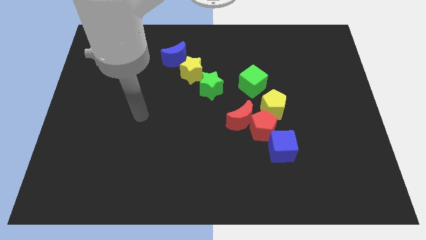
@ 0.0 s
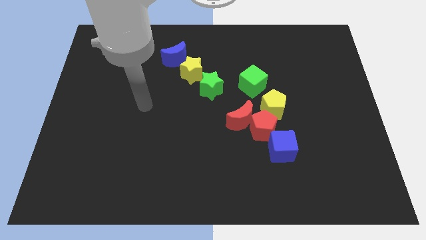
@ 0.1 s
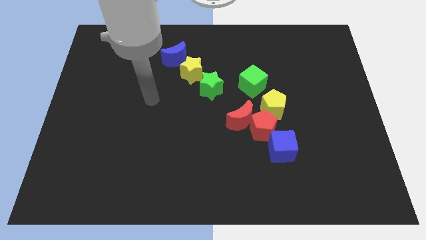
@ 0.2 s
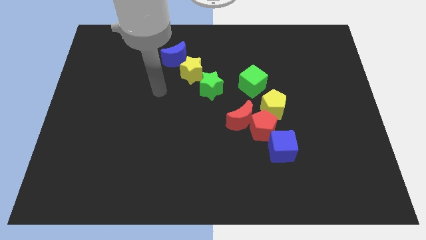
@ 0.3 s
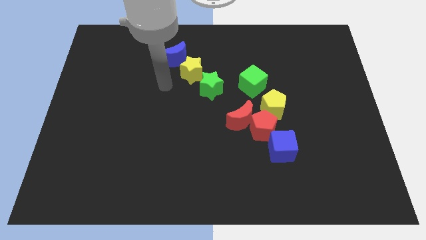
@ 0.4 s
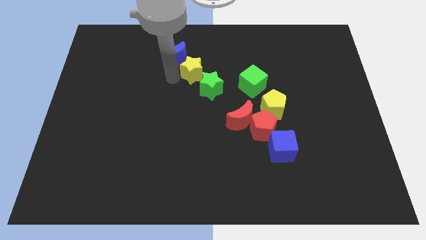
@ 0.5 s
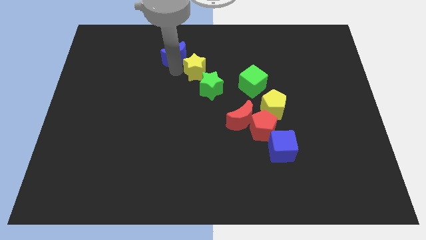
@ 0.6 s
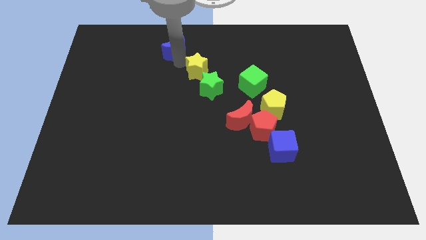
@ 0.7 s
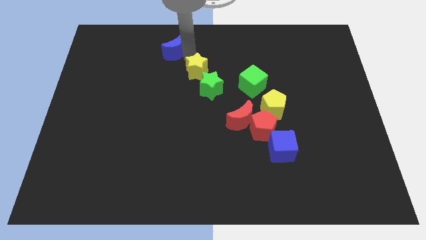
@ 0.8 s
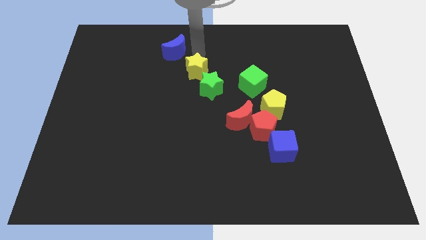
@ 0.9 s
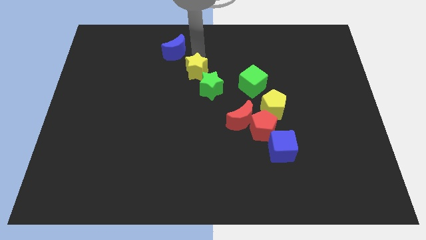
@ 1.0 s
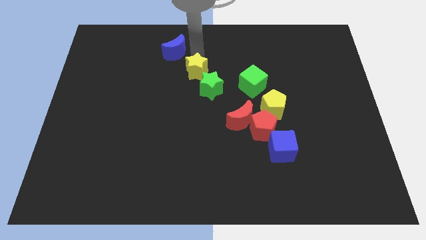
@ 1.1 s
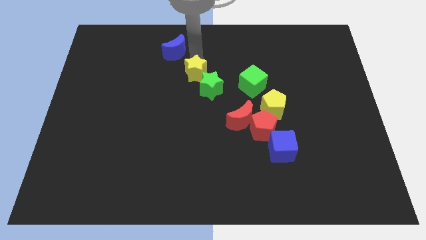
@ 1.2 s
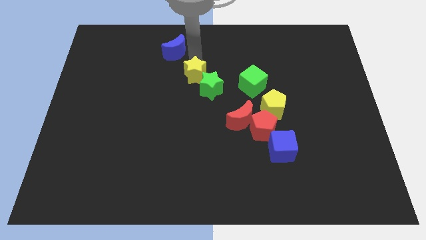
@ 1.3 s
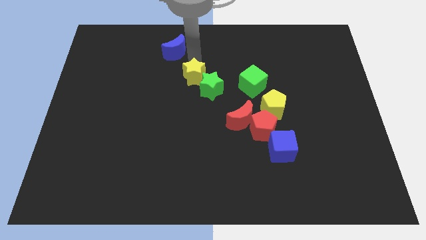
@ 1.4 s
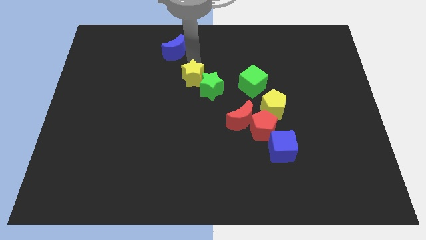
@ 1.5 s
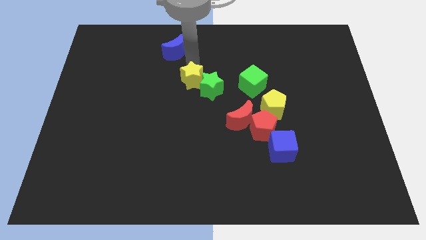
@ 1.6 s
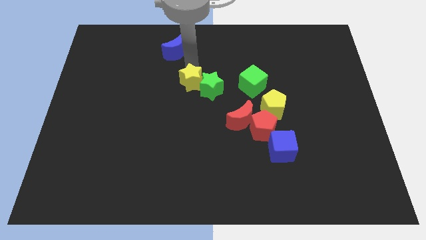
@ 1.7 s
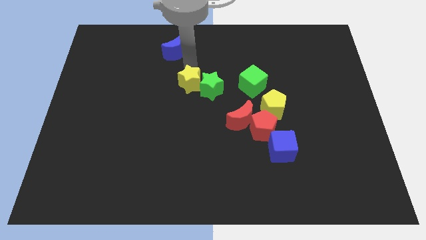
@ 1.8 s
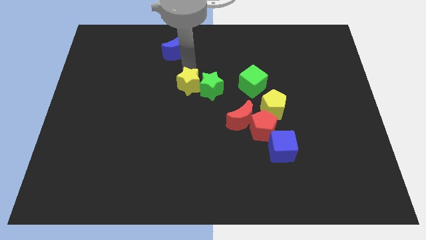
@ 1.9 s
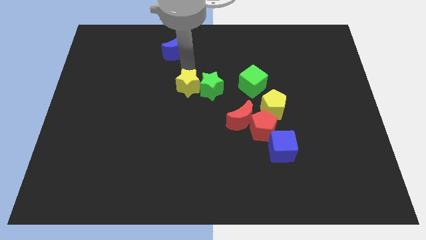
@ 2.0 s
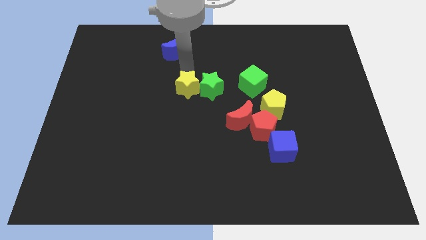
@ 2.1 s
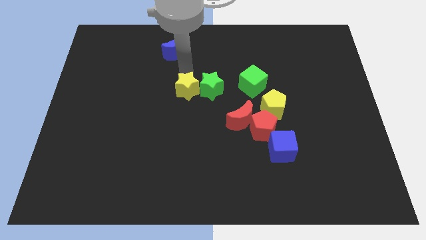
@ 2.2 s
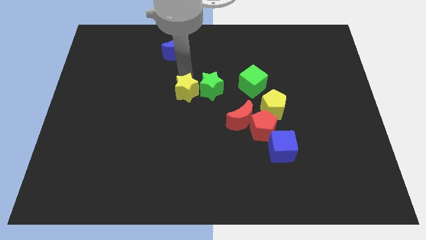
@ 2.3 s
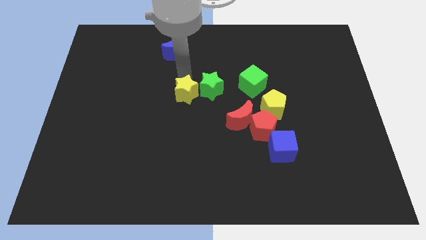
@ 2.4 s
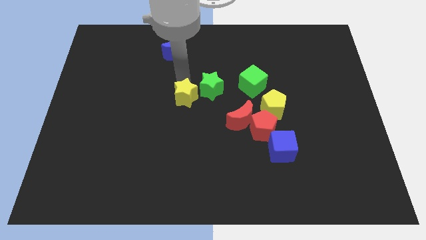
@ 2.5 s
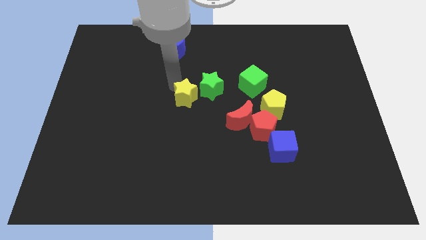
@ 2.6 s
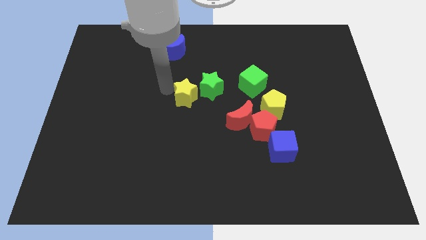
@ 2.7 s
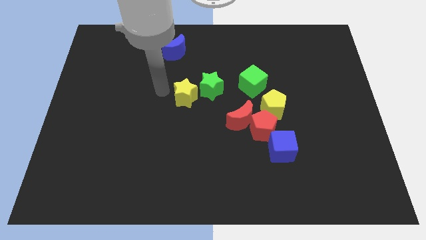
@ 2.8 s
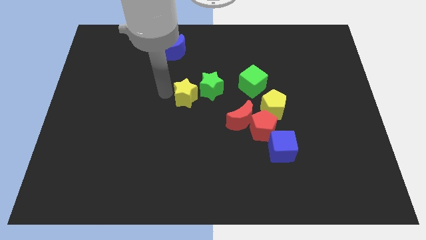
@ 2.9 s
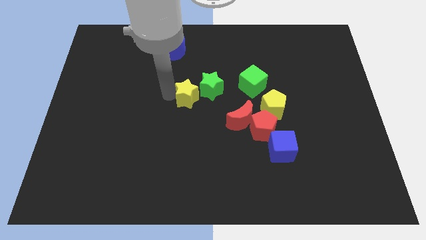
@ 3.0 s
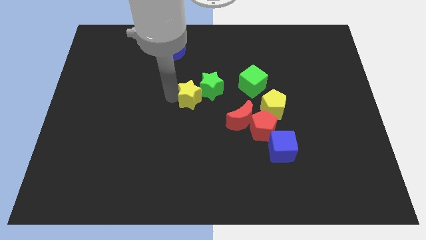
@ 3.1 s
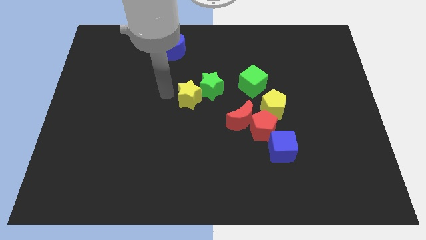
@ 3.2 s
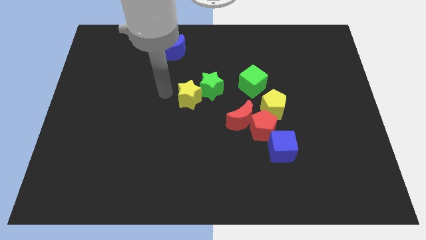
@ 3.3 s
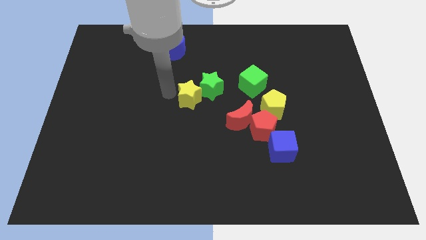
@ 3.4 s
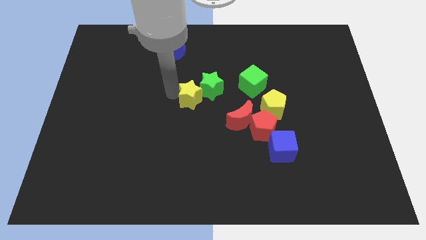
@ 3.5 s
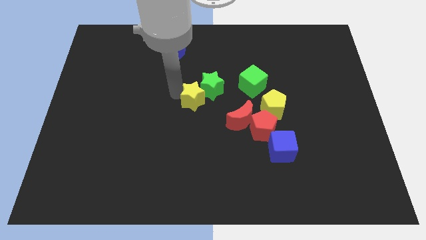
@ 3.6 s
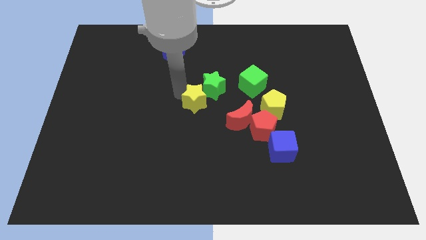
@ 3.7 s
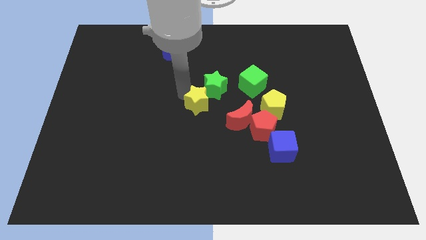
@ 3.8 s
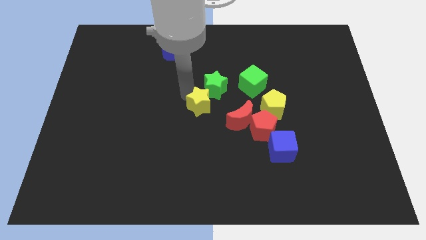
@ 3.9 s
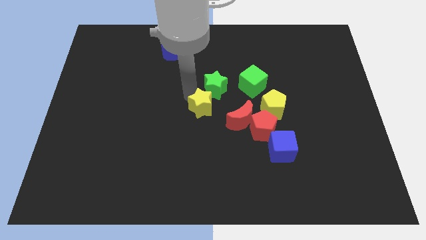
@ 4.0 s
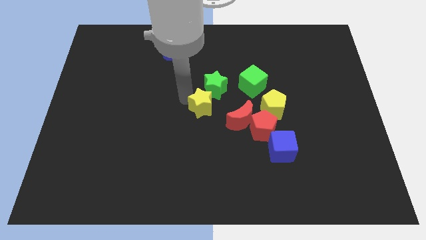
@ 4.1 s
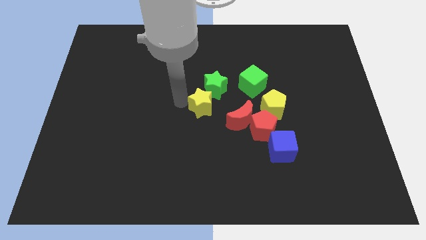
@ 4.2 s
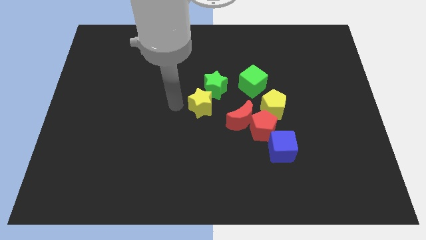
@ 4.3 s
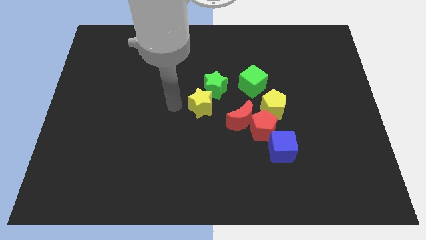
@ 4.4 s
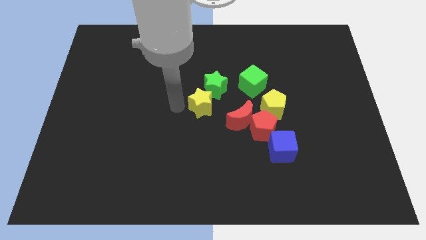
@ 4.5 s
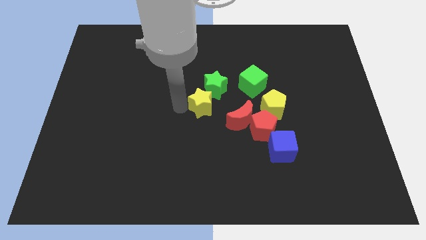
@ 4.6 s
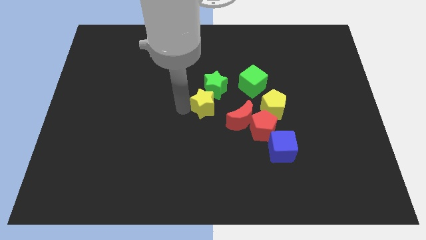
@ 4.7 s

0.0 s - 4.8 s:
put the yellow star to the left of the yellow pentagon

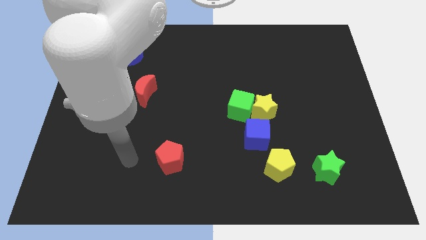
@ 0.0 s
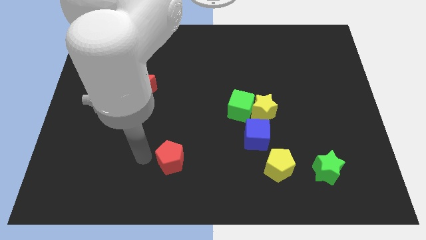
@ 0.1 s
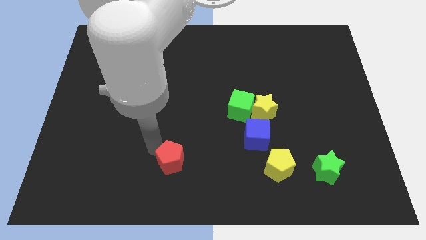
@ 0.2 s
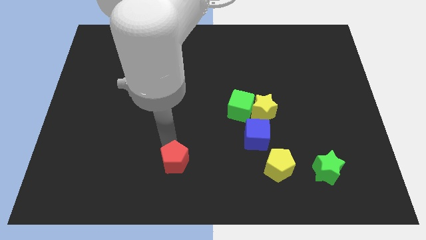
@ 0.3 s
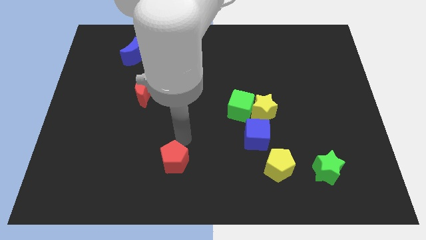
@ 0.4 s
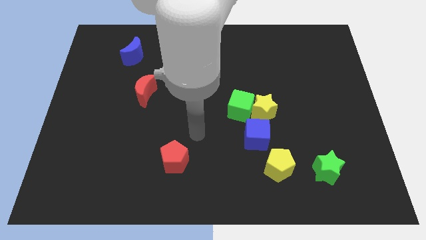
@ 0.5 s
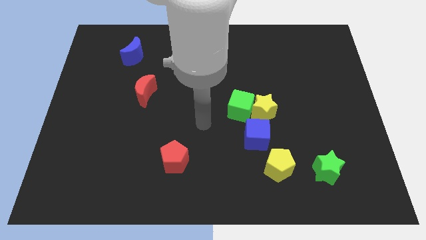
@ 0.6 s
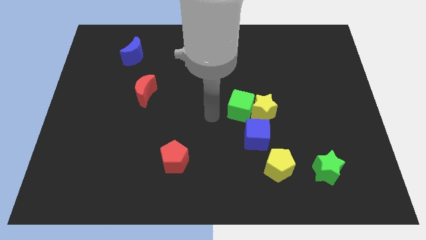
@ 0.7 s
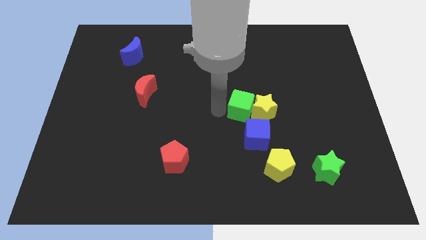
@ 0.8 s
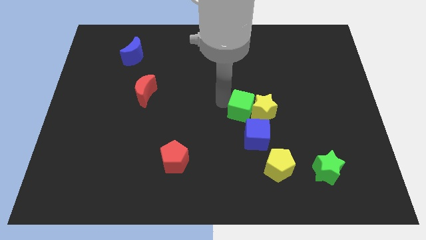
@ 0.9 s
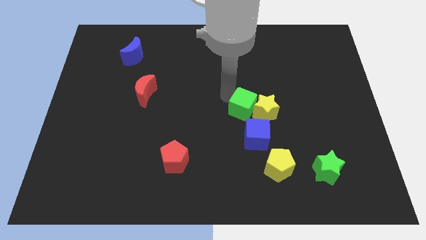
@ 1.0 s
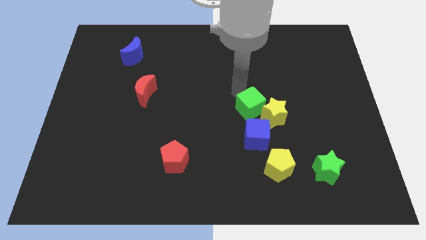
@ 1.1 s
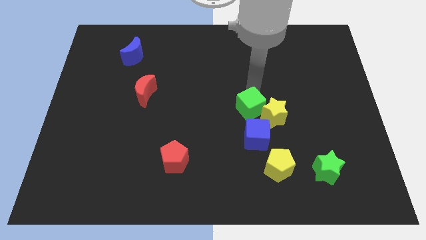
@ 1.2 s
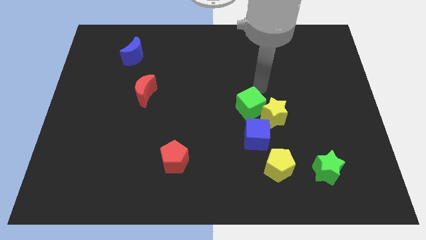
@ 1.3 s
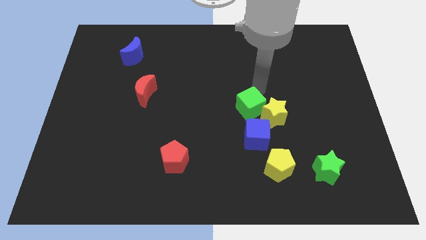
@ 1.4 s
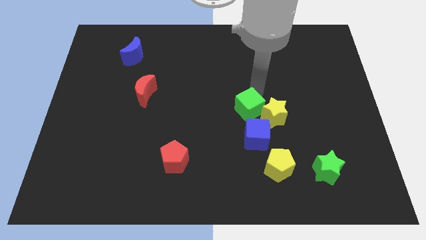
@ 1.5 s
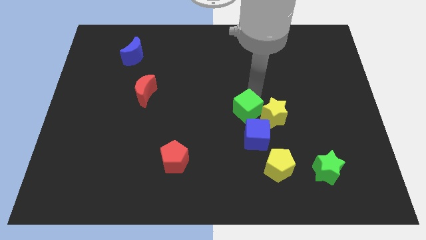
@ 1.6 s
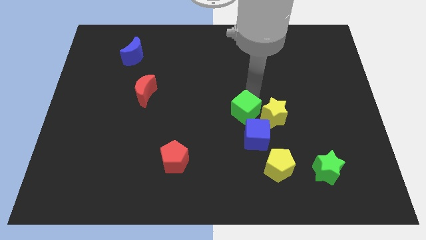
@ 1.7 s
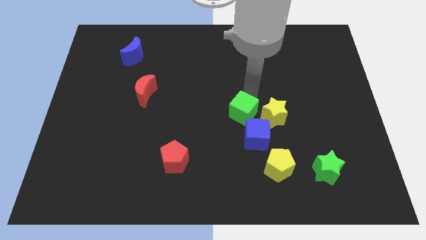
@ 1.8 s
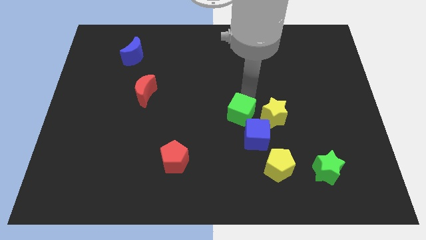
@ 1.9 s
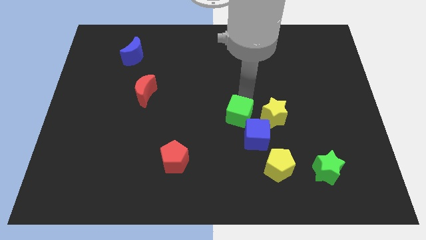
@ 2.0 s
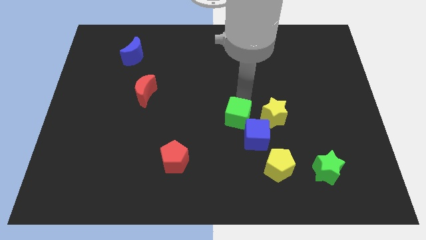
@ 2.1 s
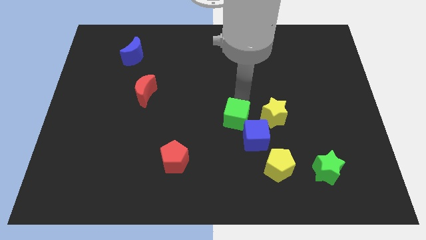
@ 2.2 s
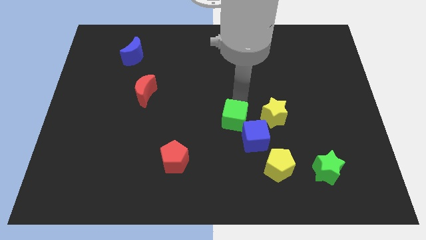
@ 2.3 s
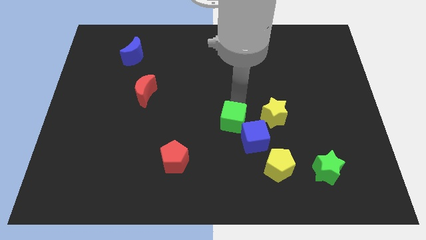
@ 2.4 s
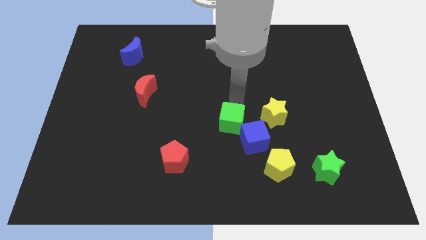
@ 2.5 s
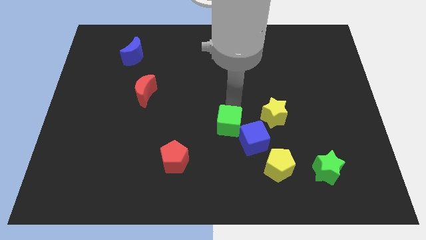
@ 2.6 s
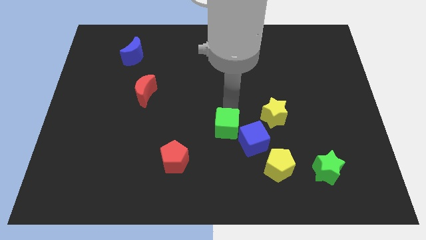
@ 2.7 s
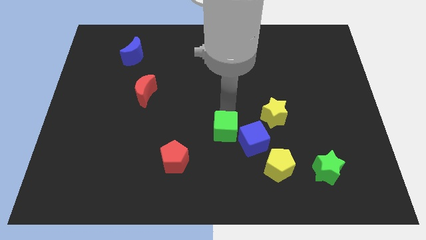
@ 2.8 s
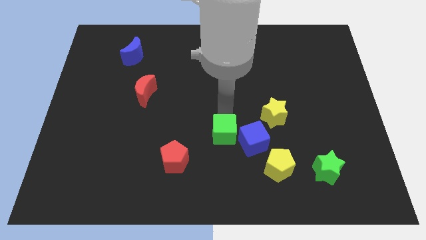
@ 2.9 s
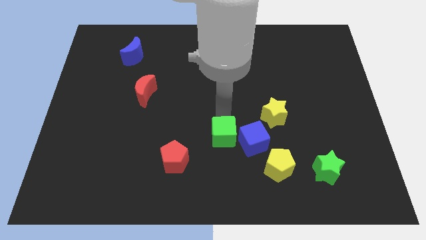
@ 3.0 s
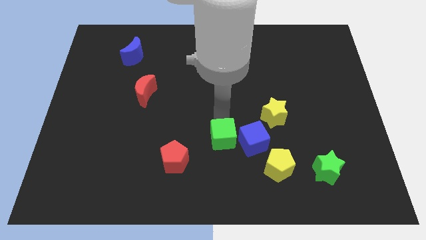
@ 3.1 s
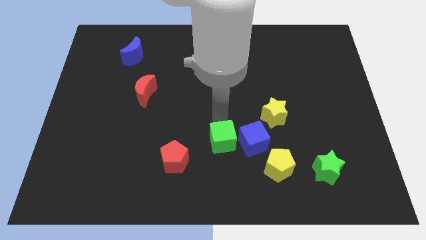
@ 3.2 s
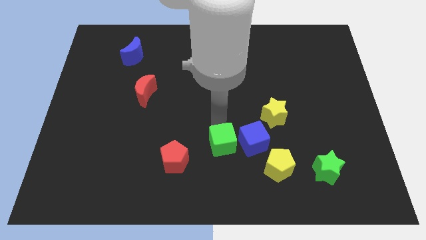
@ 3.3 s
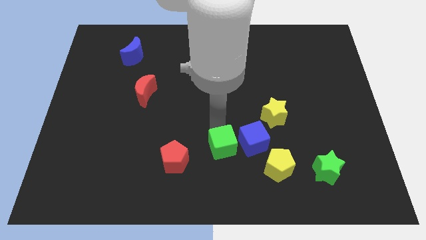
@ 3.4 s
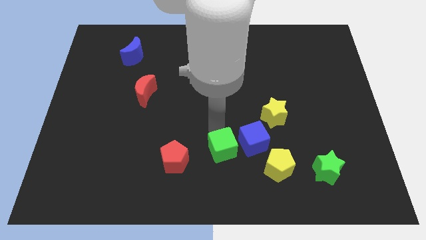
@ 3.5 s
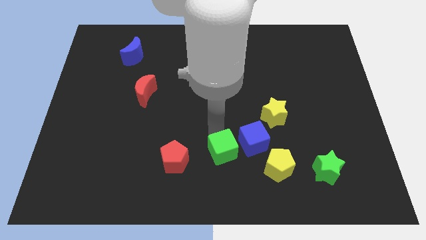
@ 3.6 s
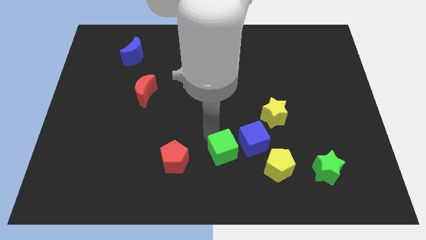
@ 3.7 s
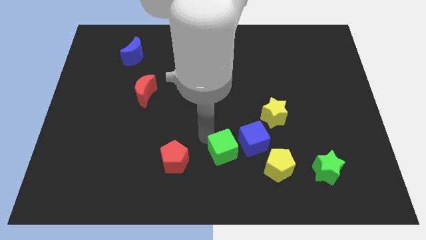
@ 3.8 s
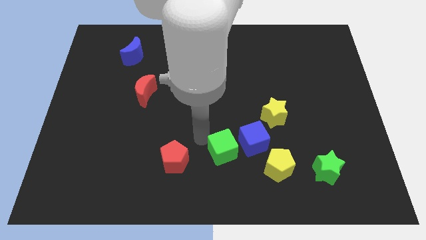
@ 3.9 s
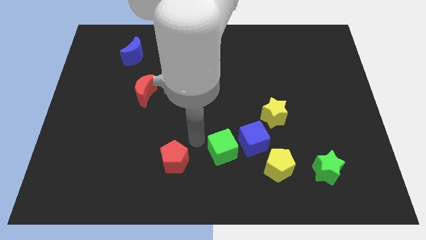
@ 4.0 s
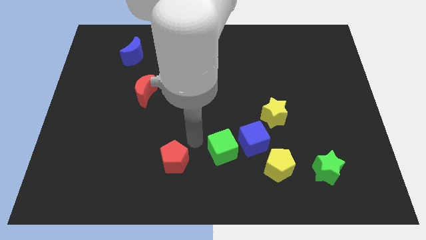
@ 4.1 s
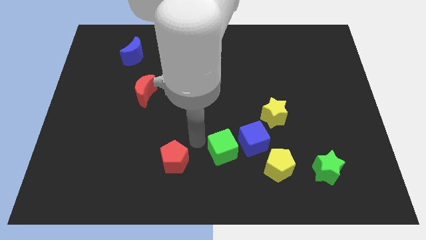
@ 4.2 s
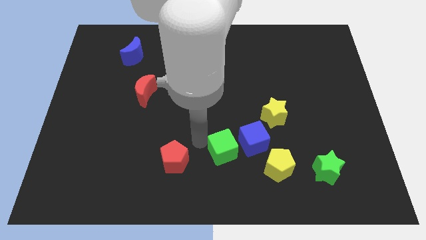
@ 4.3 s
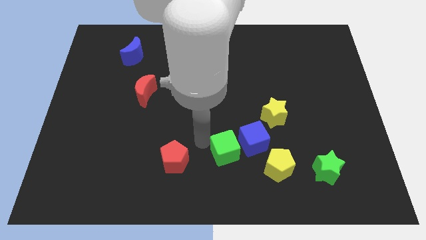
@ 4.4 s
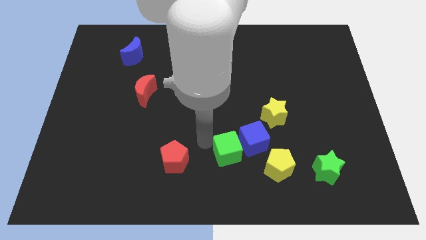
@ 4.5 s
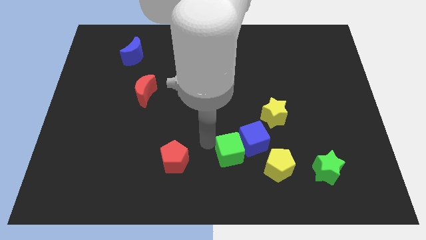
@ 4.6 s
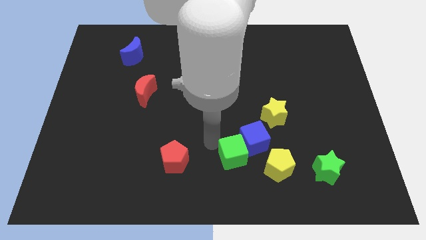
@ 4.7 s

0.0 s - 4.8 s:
slide the green cube below the blue cube
